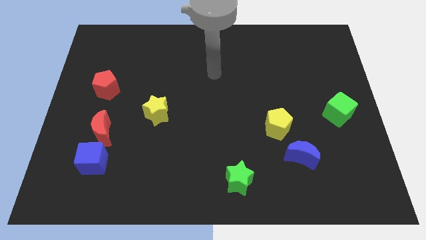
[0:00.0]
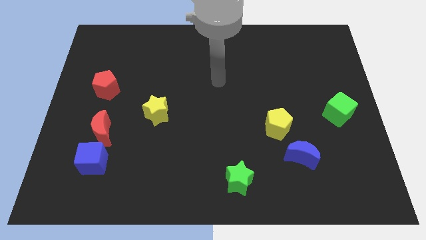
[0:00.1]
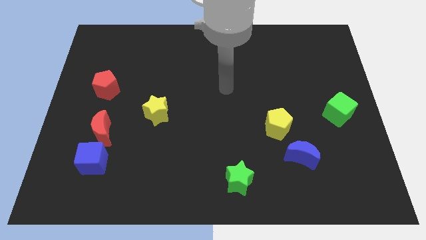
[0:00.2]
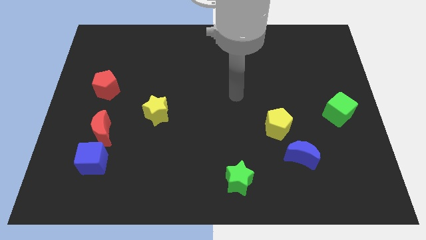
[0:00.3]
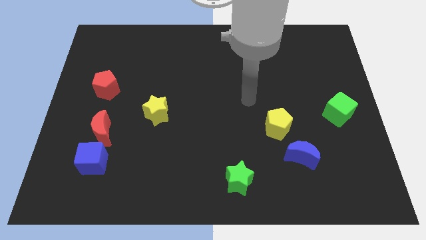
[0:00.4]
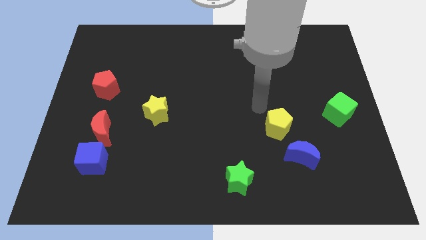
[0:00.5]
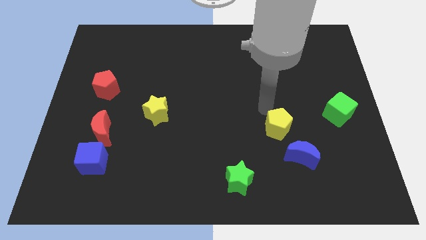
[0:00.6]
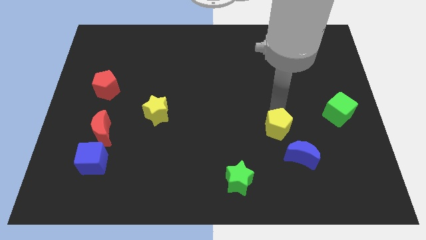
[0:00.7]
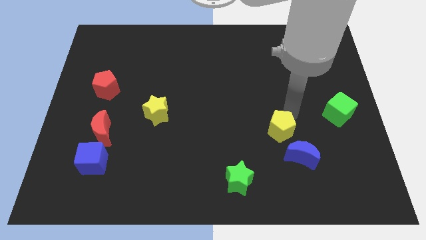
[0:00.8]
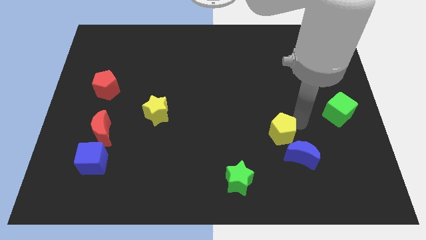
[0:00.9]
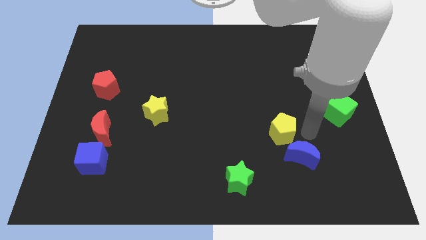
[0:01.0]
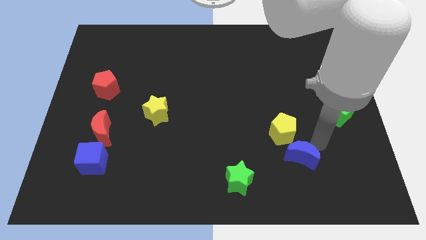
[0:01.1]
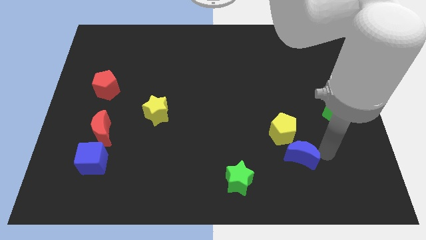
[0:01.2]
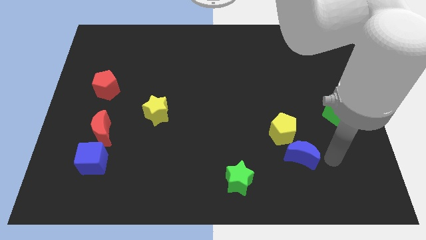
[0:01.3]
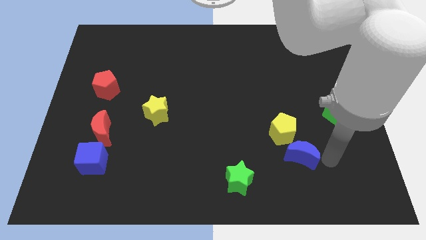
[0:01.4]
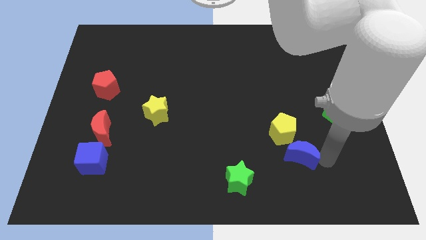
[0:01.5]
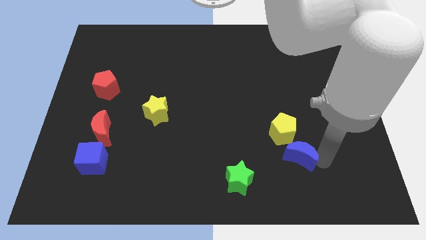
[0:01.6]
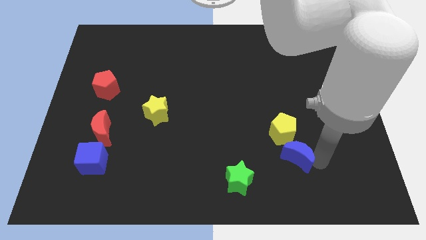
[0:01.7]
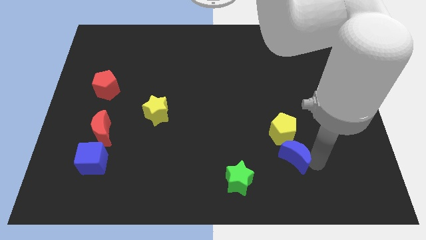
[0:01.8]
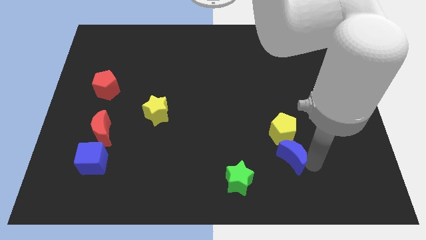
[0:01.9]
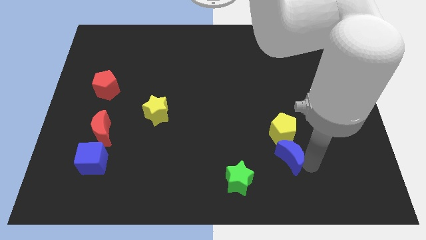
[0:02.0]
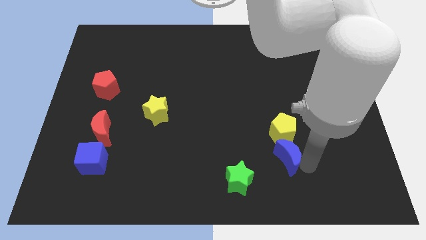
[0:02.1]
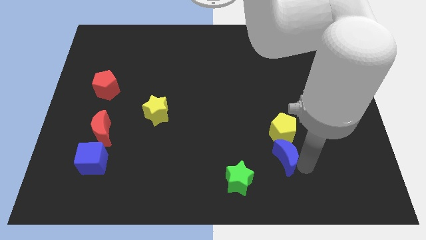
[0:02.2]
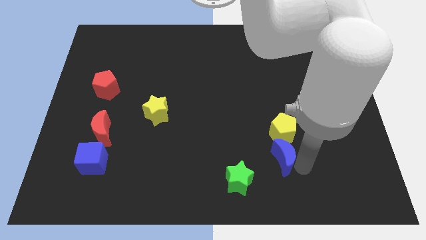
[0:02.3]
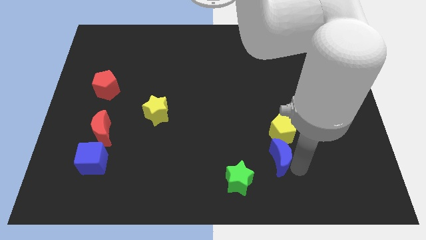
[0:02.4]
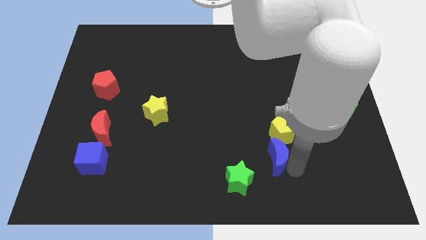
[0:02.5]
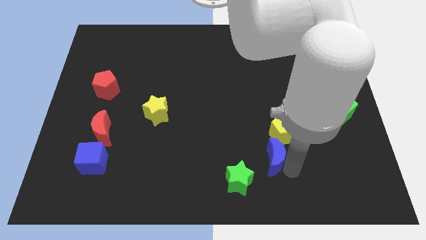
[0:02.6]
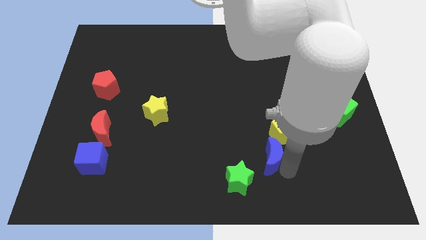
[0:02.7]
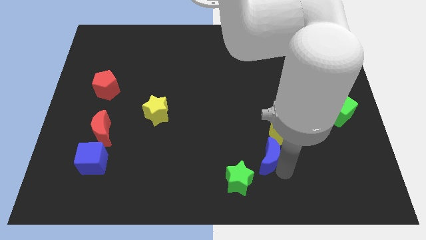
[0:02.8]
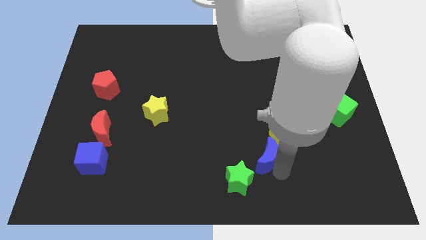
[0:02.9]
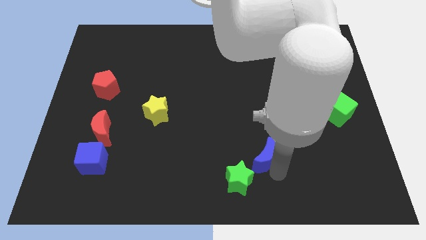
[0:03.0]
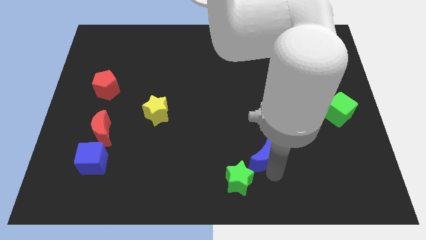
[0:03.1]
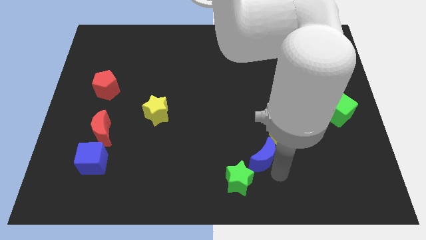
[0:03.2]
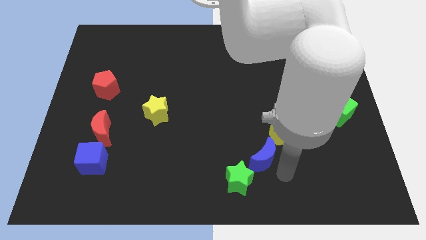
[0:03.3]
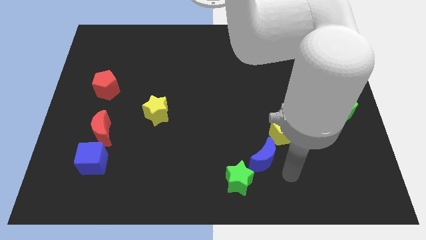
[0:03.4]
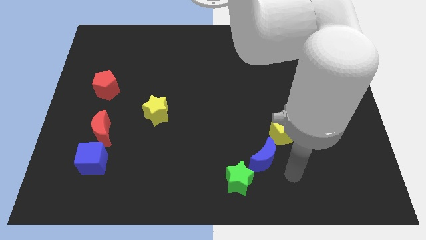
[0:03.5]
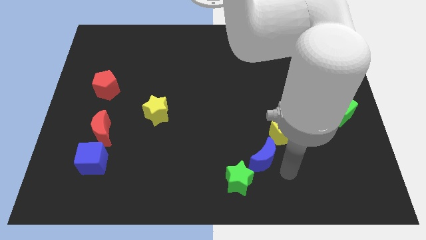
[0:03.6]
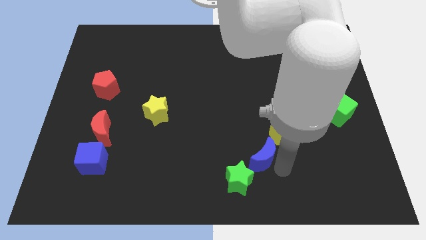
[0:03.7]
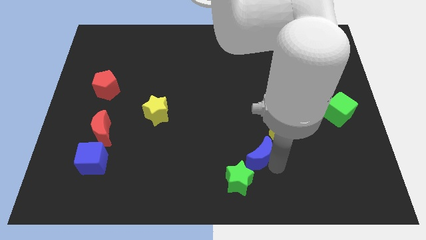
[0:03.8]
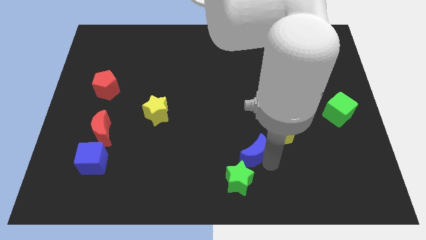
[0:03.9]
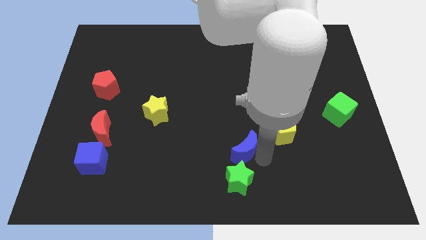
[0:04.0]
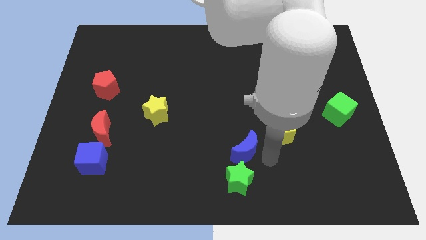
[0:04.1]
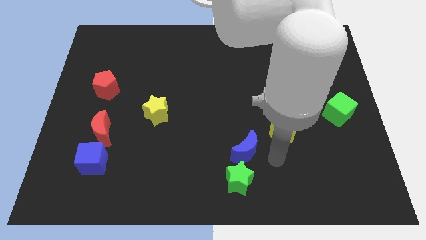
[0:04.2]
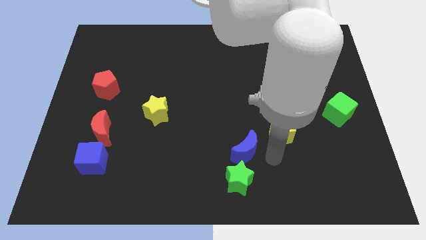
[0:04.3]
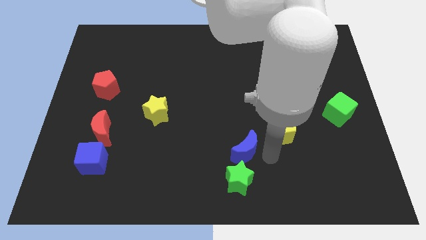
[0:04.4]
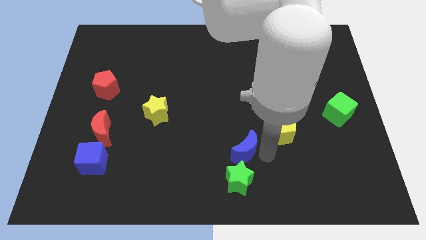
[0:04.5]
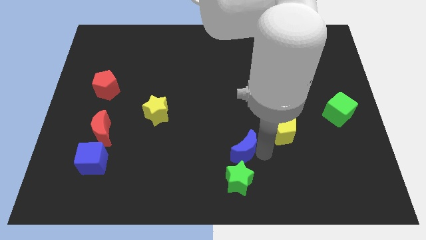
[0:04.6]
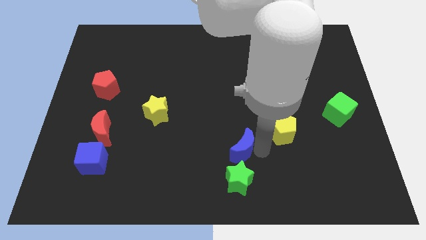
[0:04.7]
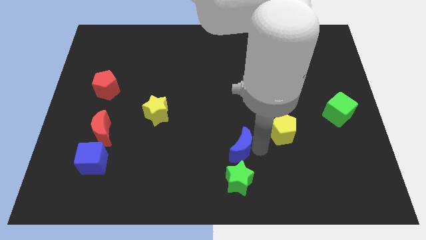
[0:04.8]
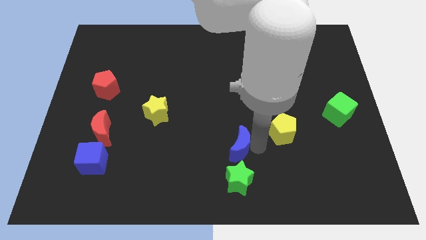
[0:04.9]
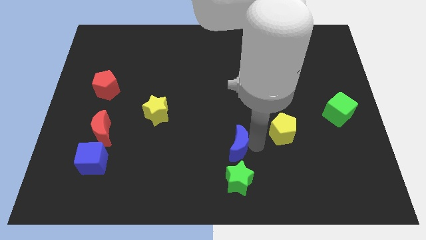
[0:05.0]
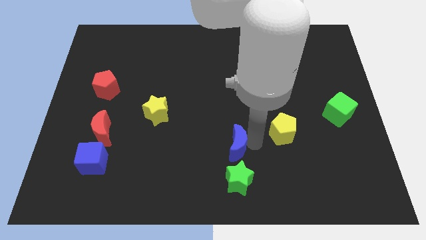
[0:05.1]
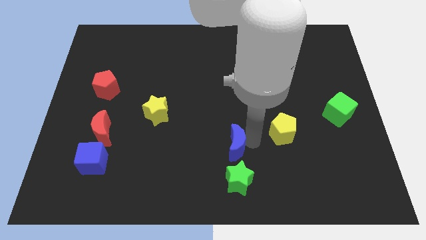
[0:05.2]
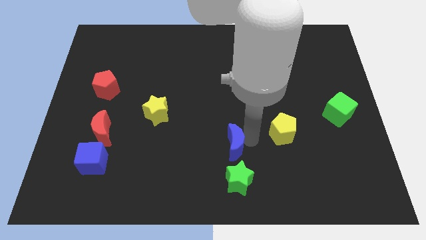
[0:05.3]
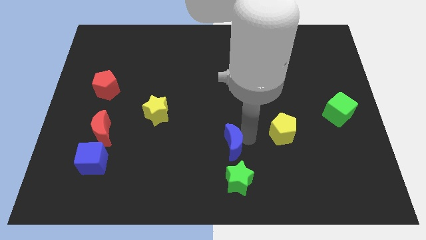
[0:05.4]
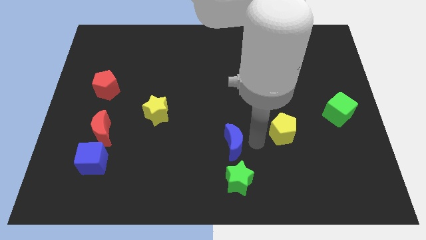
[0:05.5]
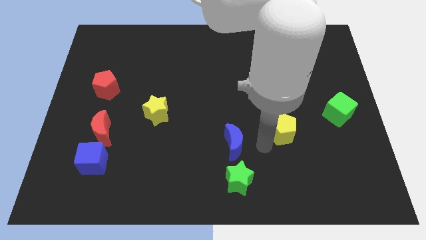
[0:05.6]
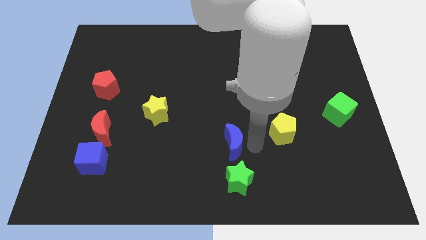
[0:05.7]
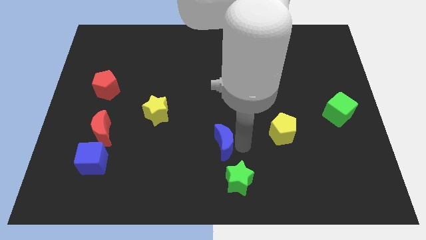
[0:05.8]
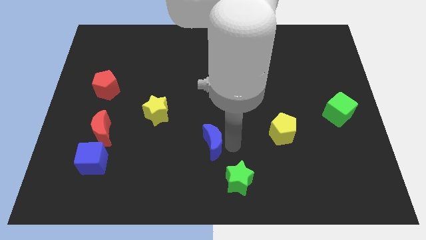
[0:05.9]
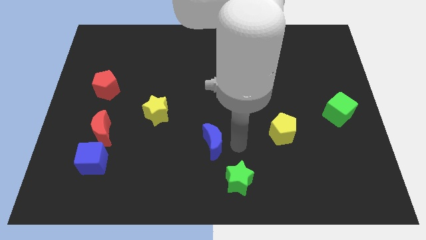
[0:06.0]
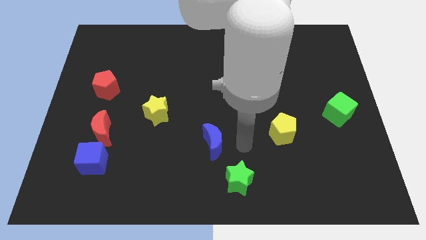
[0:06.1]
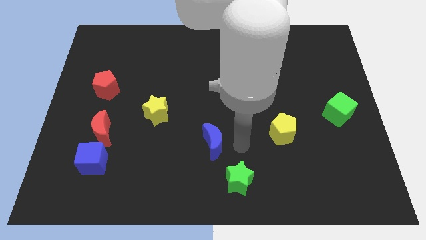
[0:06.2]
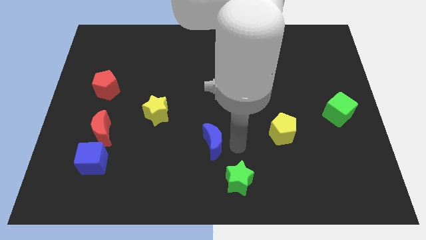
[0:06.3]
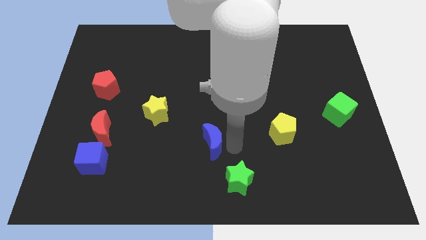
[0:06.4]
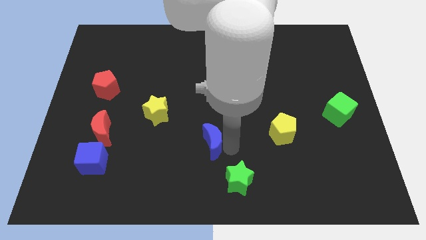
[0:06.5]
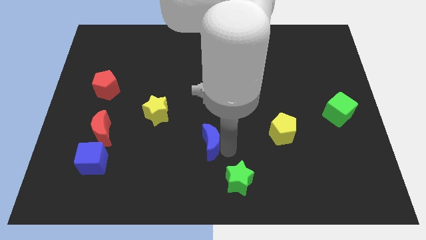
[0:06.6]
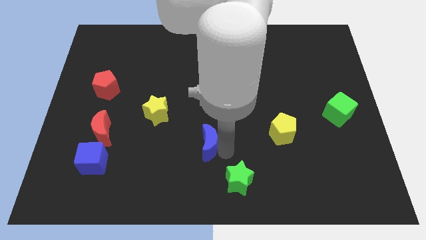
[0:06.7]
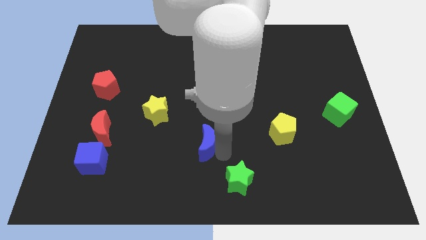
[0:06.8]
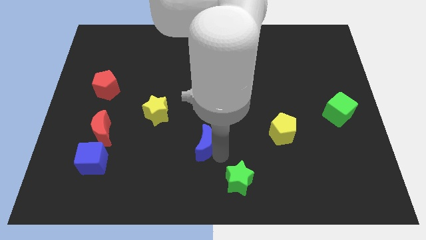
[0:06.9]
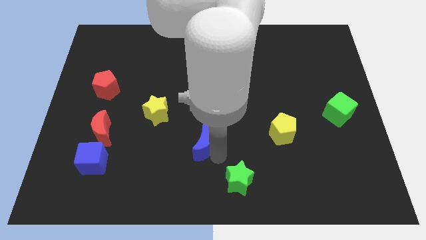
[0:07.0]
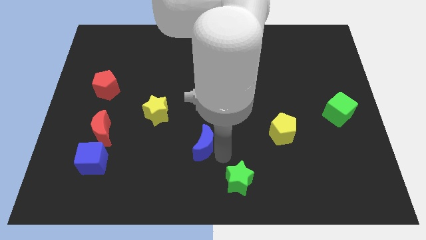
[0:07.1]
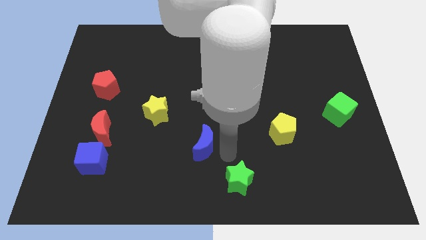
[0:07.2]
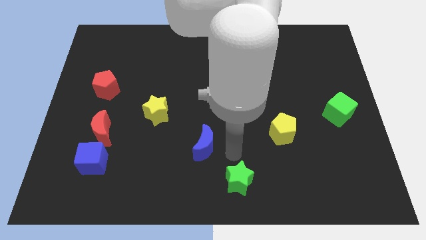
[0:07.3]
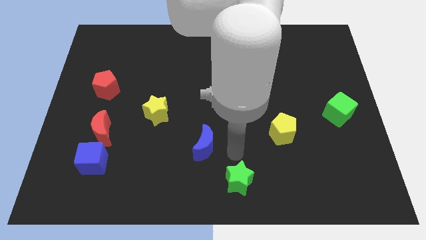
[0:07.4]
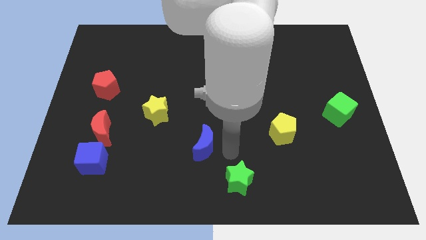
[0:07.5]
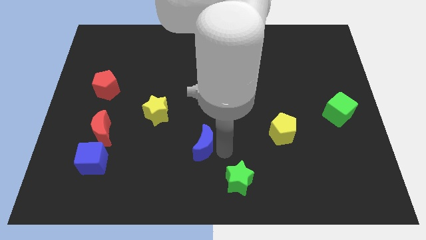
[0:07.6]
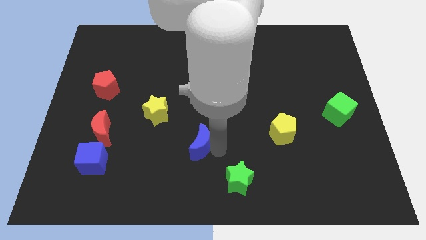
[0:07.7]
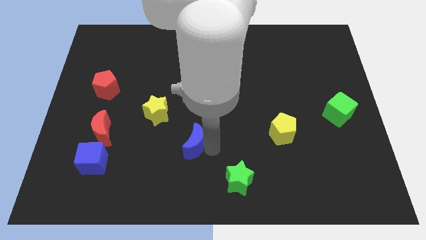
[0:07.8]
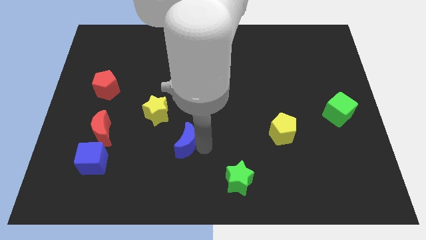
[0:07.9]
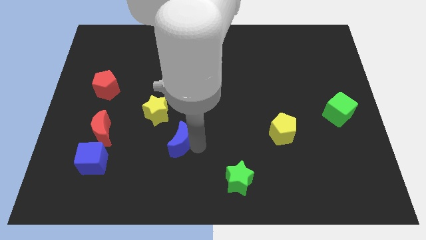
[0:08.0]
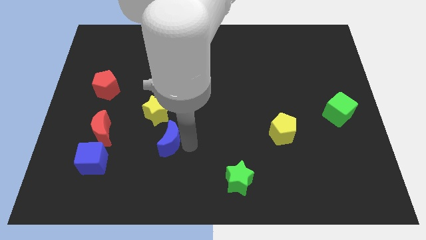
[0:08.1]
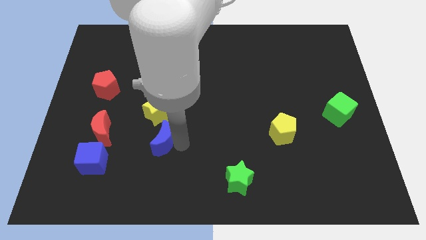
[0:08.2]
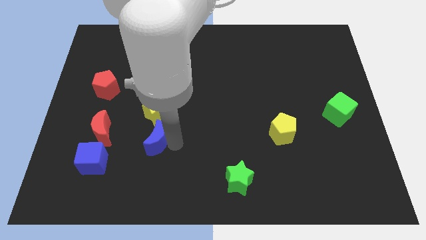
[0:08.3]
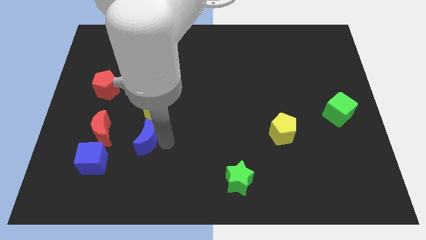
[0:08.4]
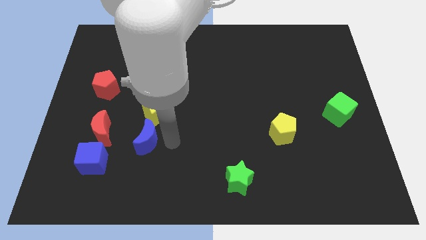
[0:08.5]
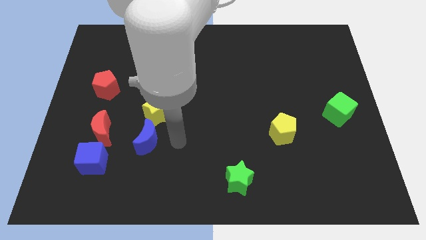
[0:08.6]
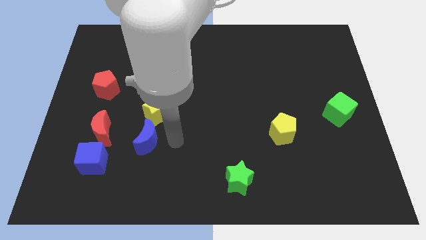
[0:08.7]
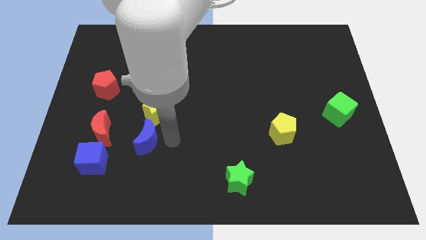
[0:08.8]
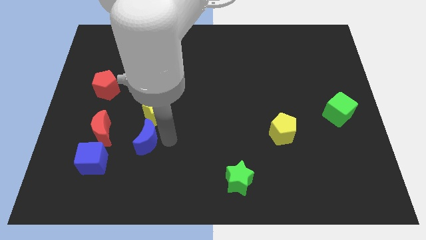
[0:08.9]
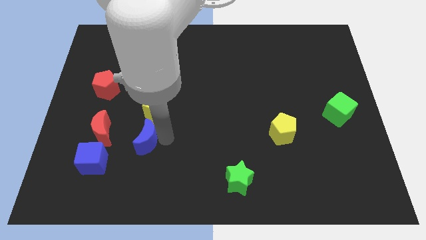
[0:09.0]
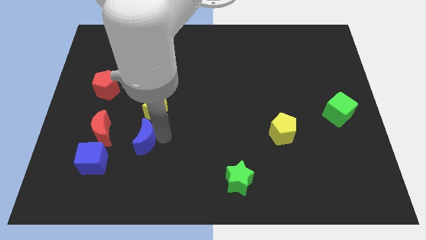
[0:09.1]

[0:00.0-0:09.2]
move the blue moon diagonally up and to the right of the blue cube
